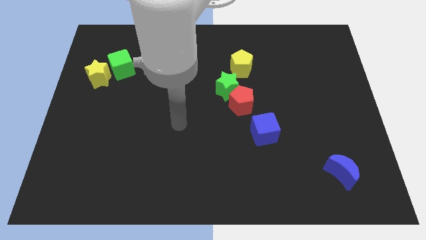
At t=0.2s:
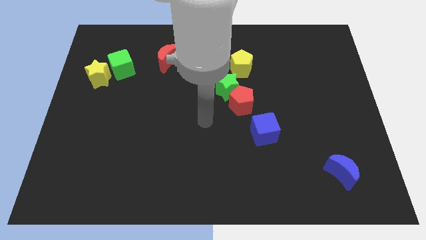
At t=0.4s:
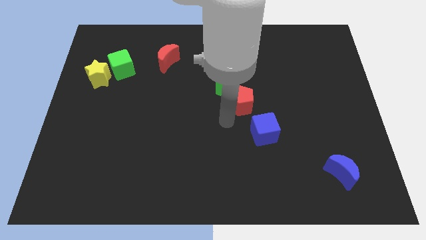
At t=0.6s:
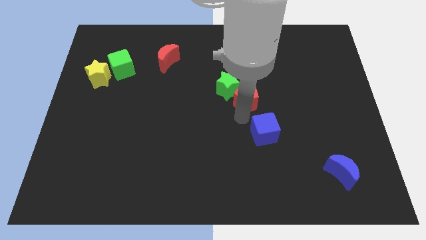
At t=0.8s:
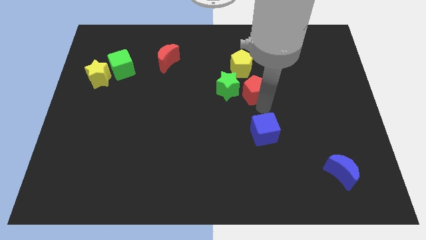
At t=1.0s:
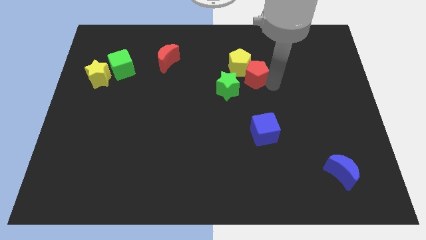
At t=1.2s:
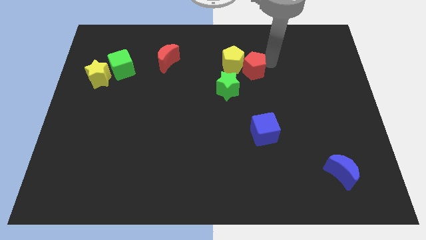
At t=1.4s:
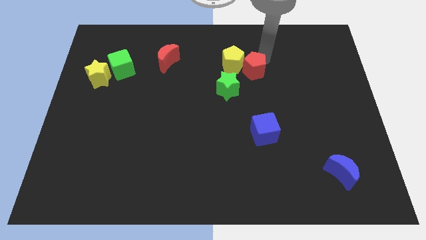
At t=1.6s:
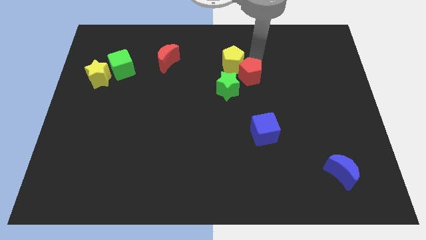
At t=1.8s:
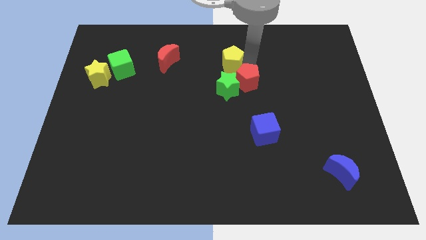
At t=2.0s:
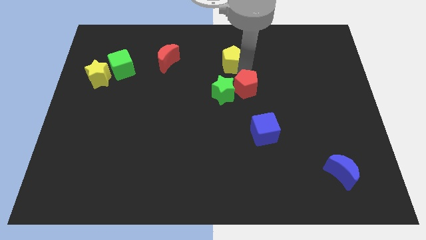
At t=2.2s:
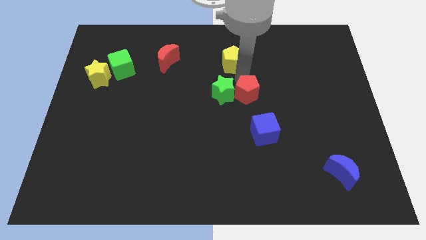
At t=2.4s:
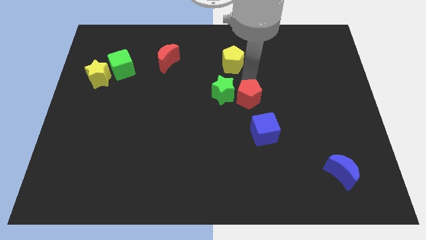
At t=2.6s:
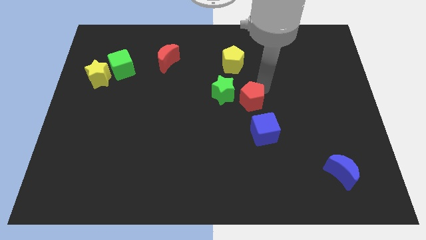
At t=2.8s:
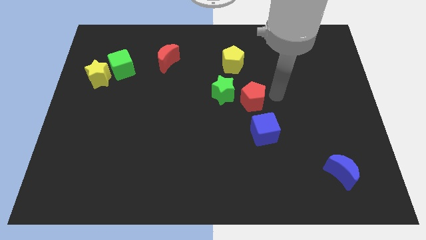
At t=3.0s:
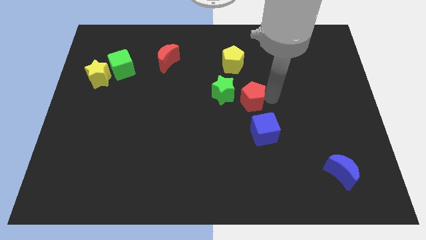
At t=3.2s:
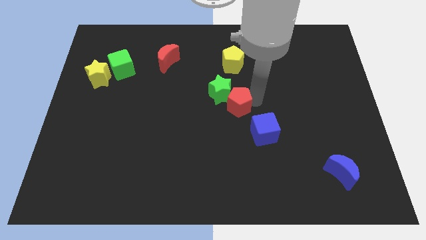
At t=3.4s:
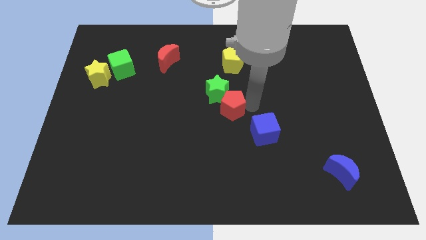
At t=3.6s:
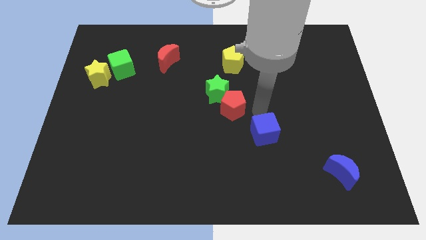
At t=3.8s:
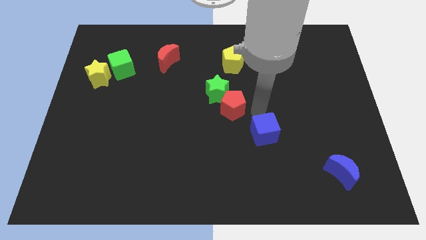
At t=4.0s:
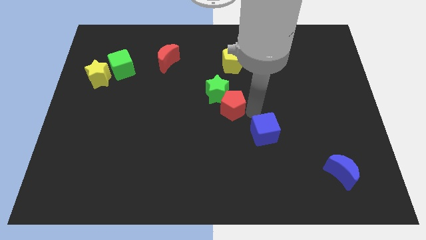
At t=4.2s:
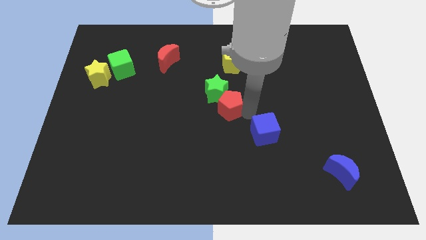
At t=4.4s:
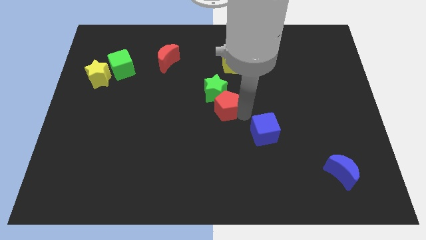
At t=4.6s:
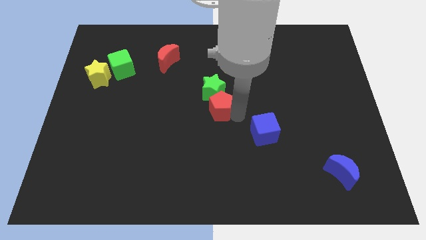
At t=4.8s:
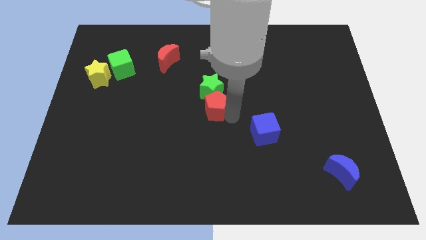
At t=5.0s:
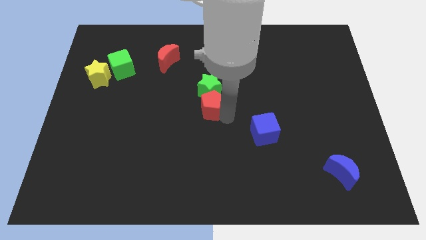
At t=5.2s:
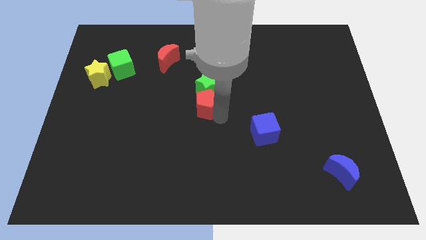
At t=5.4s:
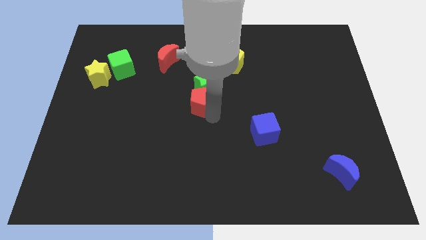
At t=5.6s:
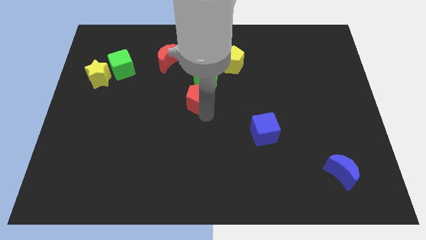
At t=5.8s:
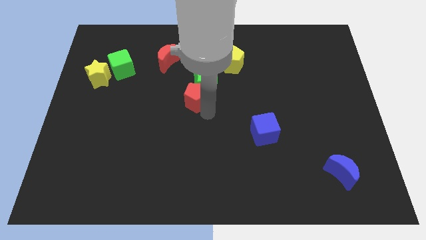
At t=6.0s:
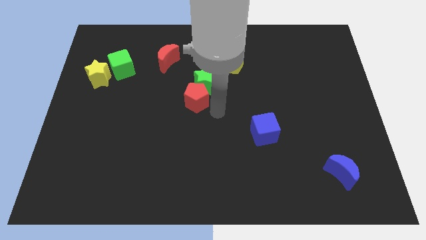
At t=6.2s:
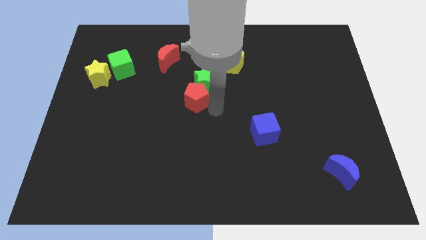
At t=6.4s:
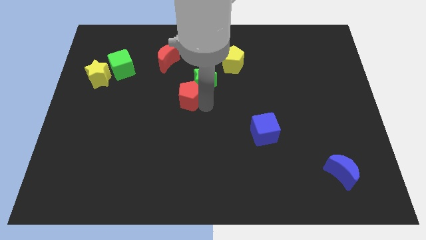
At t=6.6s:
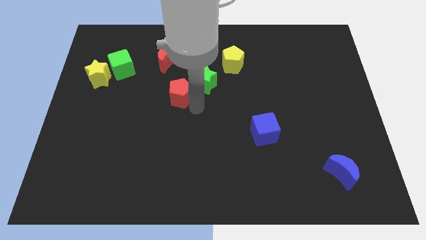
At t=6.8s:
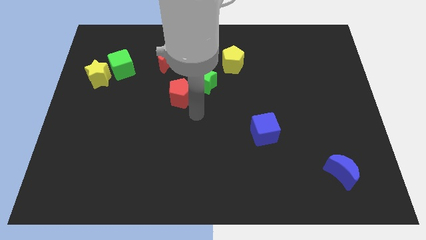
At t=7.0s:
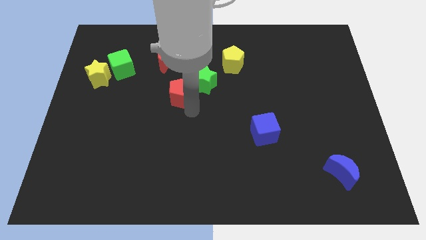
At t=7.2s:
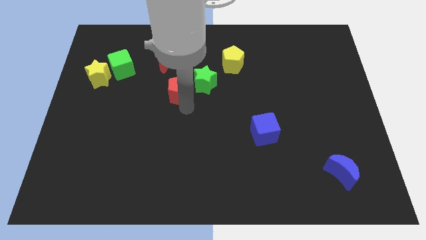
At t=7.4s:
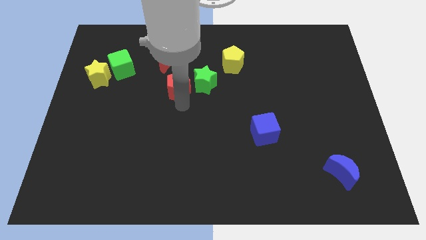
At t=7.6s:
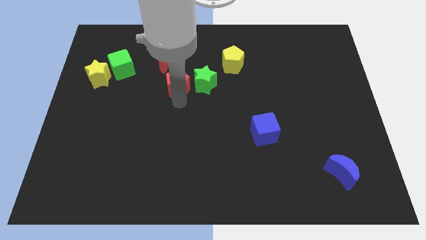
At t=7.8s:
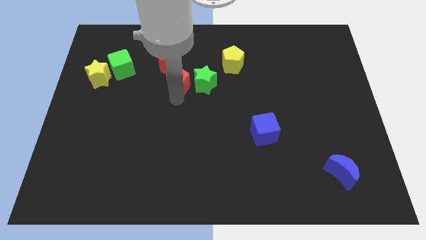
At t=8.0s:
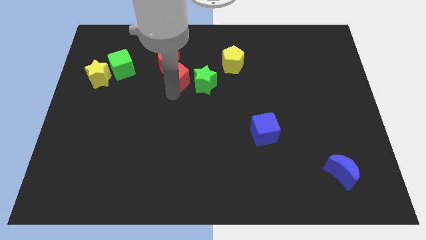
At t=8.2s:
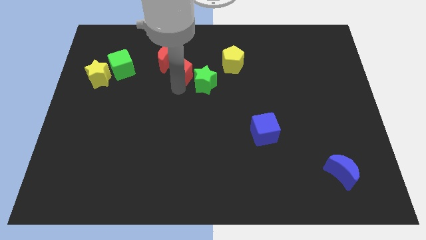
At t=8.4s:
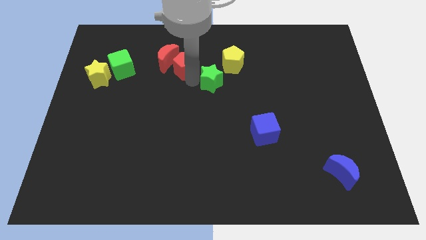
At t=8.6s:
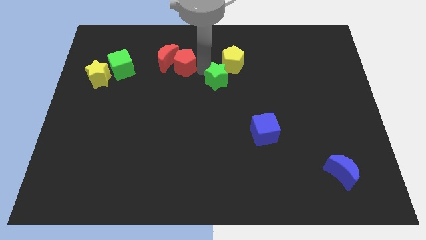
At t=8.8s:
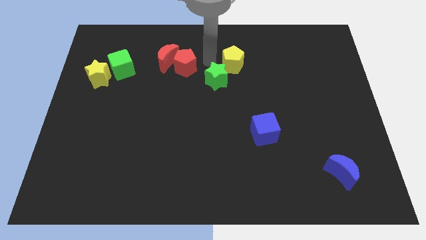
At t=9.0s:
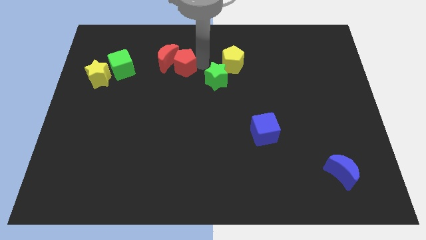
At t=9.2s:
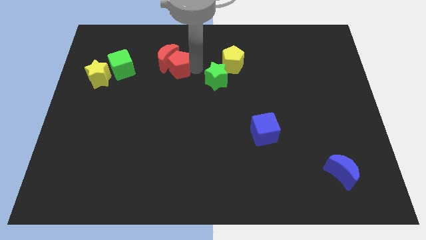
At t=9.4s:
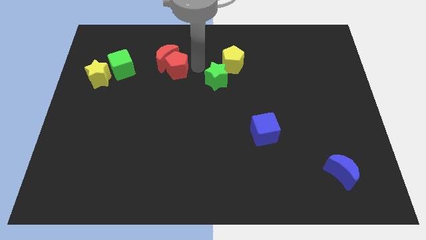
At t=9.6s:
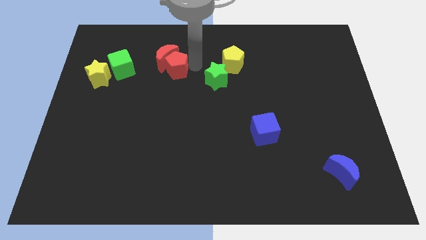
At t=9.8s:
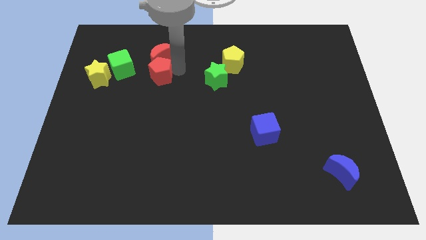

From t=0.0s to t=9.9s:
slide the red pentagon right of the yellow star

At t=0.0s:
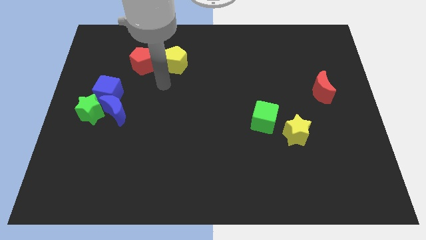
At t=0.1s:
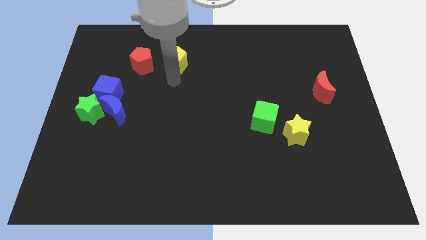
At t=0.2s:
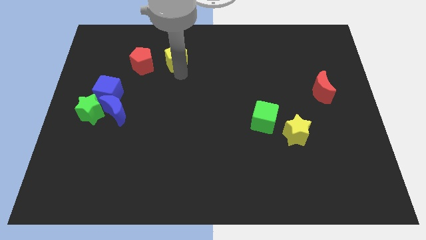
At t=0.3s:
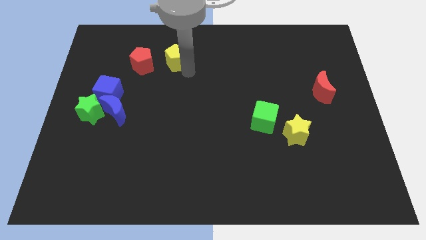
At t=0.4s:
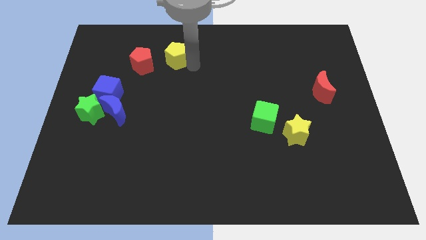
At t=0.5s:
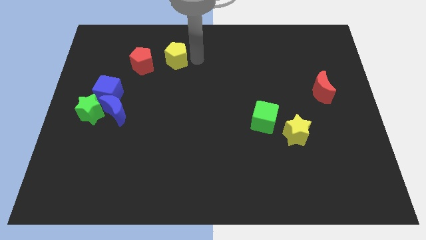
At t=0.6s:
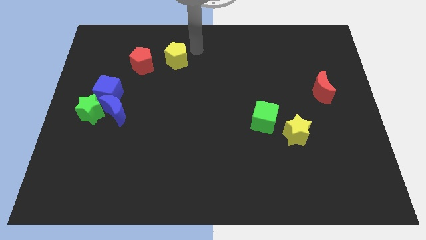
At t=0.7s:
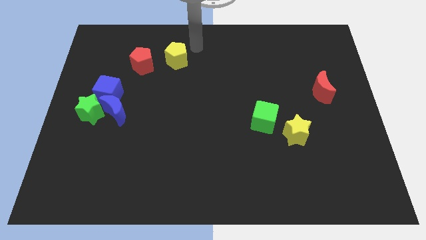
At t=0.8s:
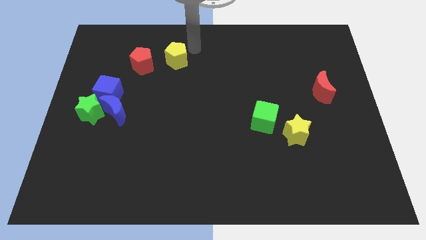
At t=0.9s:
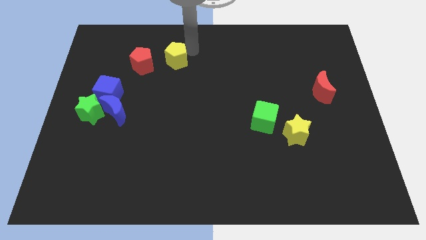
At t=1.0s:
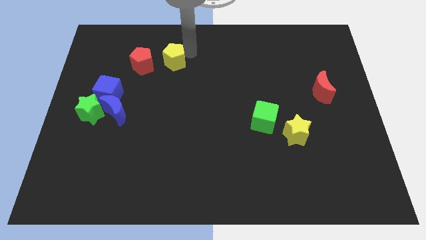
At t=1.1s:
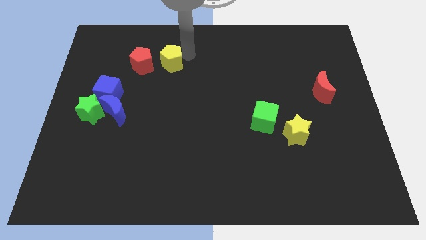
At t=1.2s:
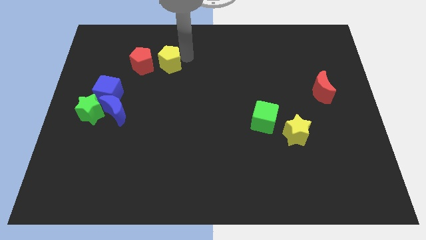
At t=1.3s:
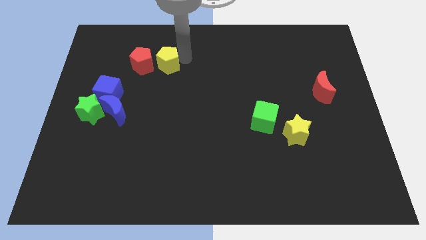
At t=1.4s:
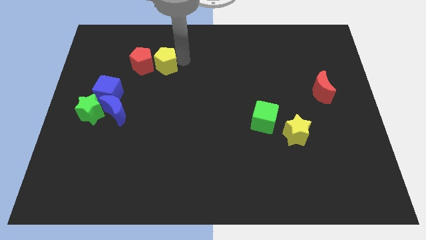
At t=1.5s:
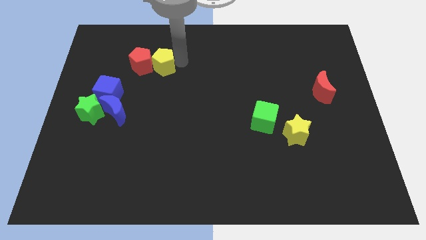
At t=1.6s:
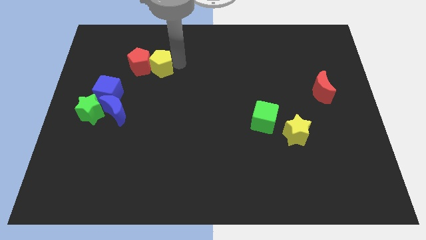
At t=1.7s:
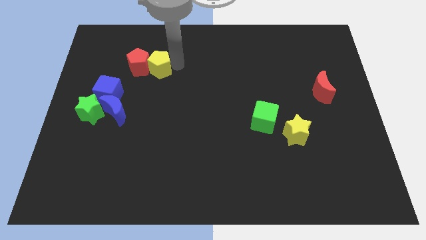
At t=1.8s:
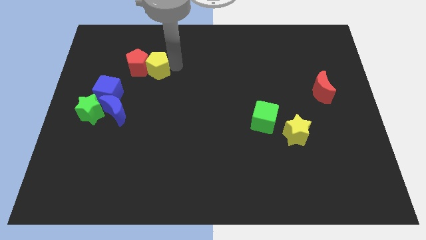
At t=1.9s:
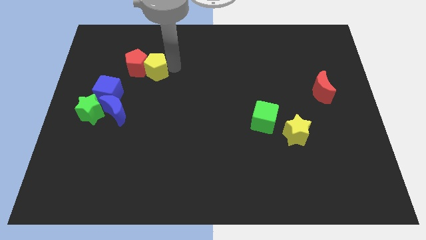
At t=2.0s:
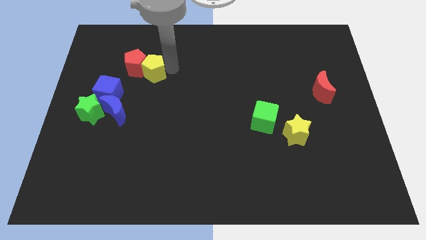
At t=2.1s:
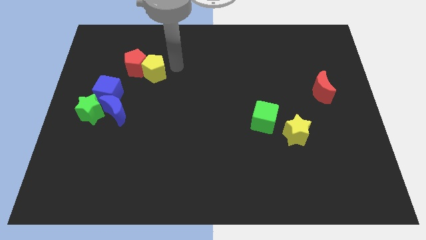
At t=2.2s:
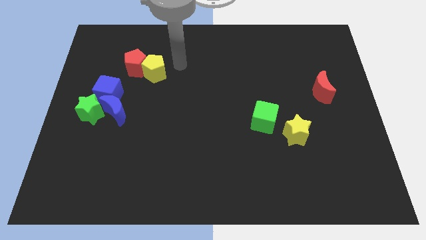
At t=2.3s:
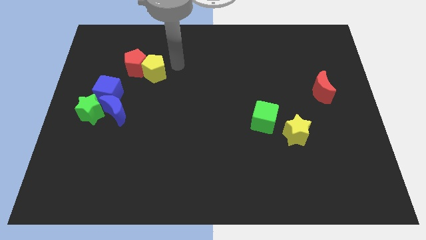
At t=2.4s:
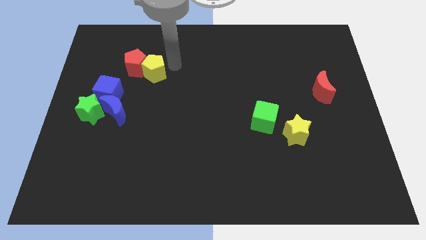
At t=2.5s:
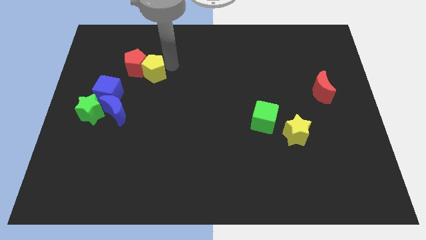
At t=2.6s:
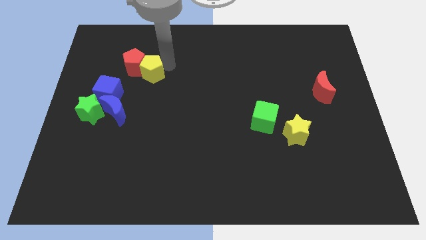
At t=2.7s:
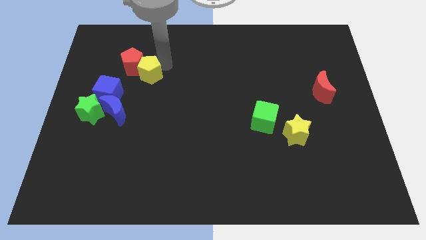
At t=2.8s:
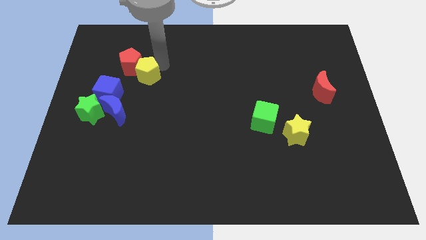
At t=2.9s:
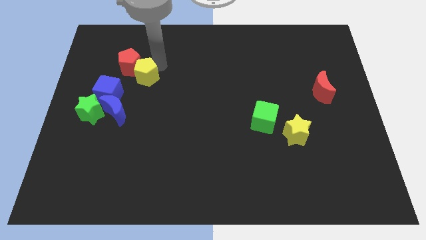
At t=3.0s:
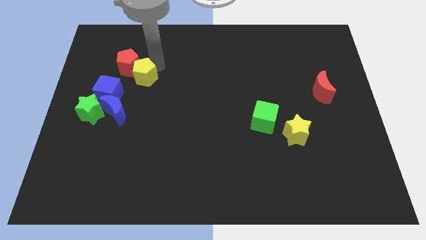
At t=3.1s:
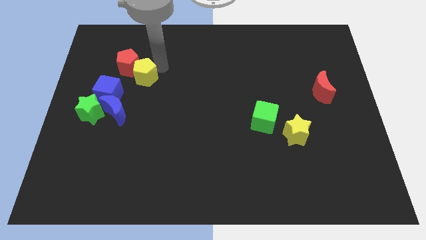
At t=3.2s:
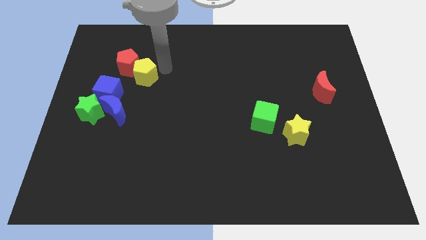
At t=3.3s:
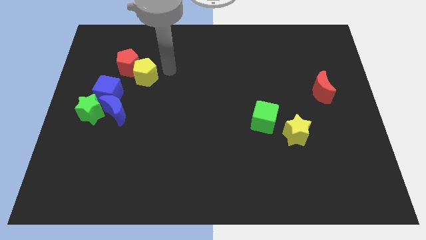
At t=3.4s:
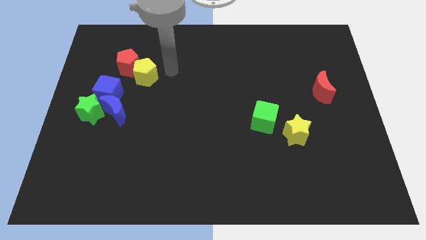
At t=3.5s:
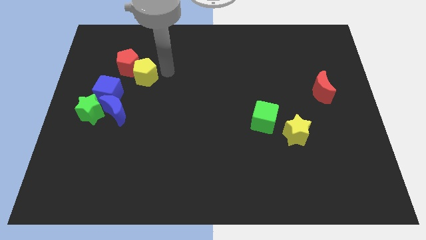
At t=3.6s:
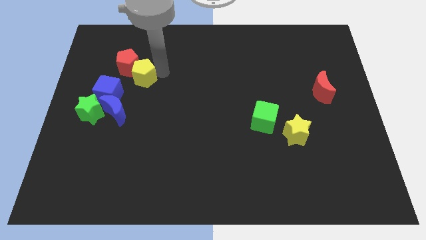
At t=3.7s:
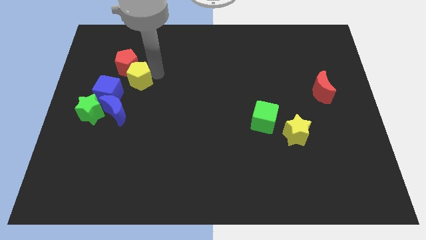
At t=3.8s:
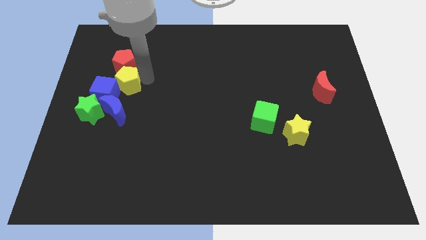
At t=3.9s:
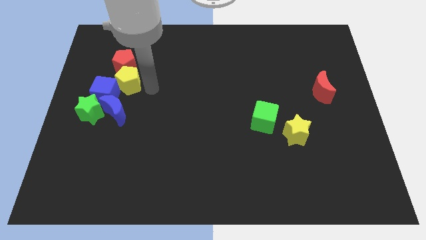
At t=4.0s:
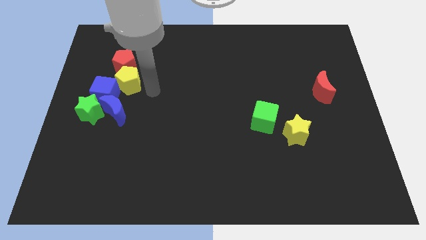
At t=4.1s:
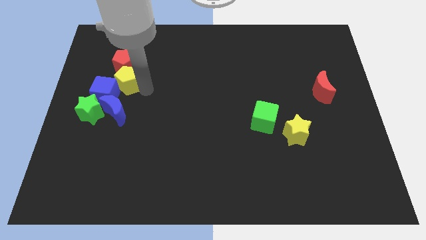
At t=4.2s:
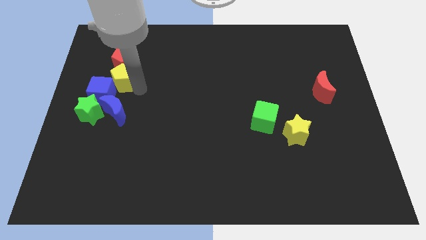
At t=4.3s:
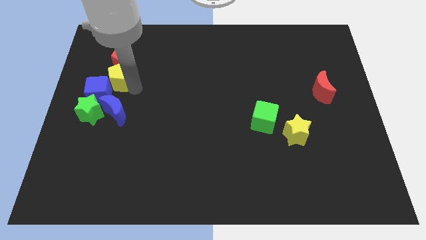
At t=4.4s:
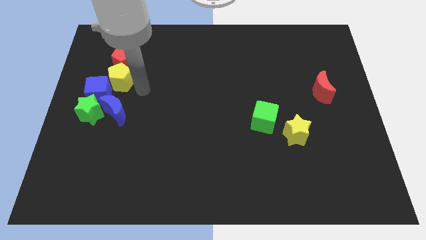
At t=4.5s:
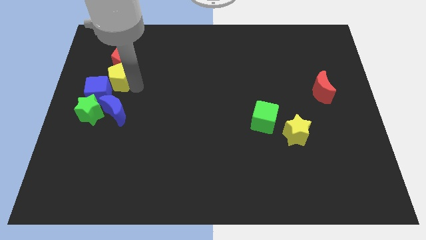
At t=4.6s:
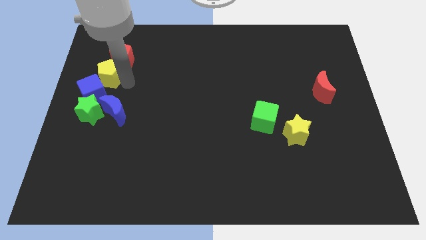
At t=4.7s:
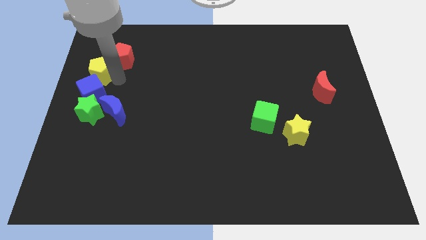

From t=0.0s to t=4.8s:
slide the yellow pentagon just left of the red pentagon
